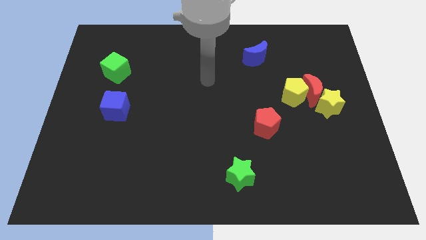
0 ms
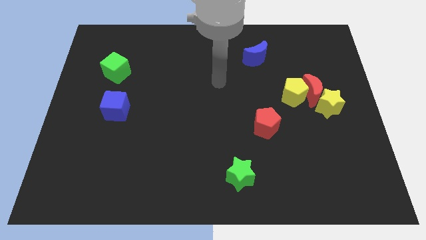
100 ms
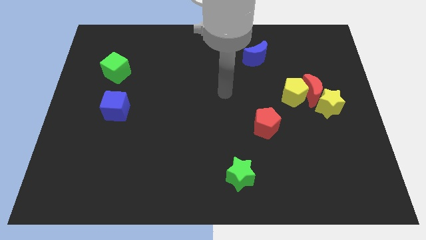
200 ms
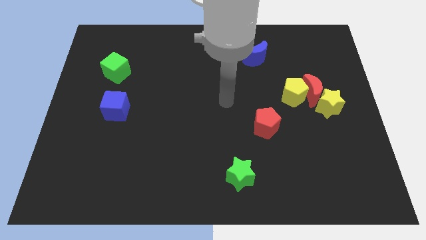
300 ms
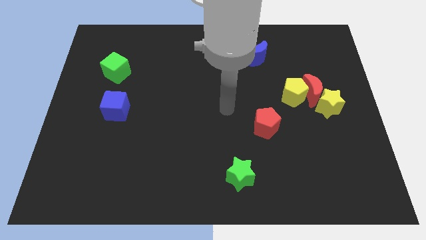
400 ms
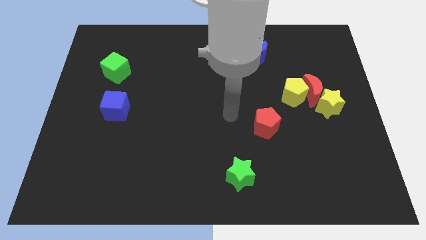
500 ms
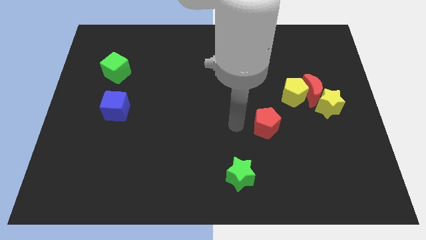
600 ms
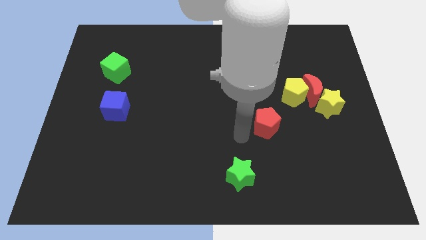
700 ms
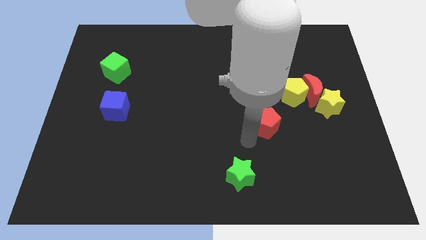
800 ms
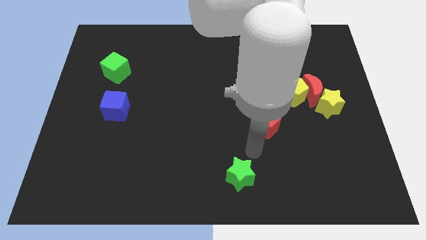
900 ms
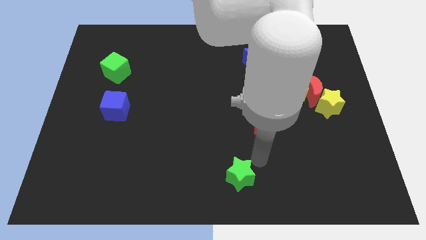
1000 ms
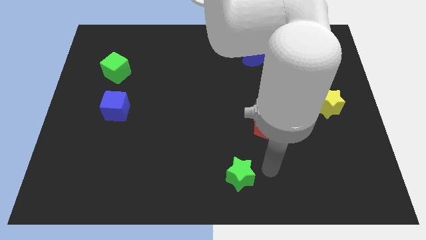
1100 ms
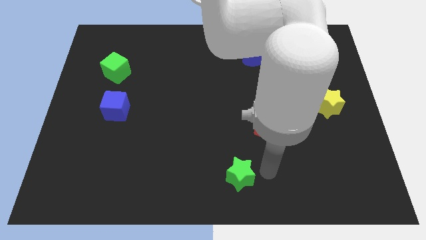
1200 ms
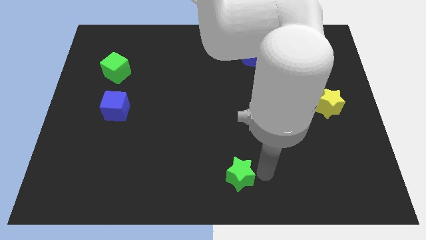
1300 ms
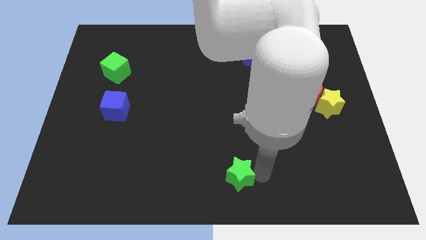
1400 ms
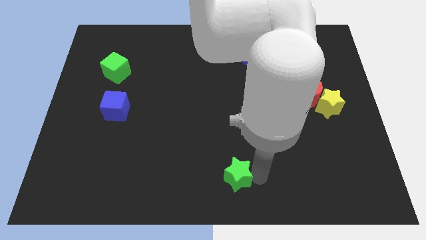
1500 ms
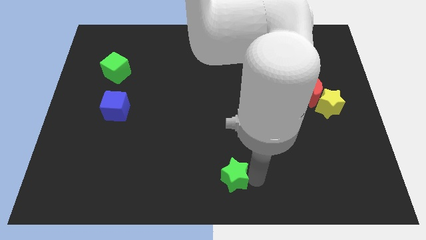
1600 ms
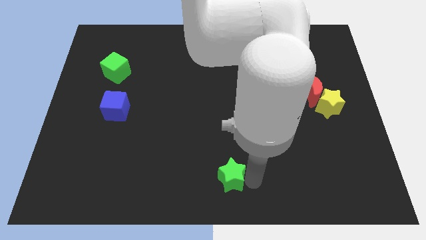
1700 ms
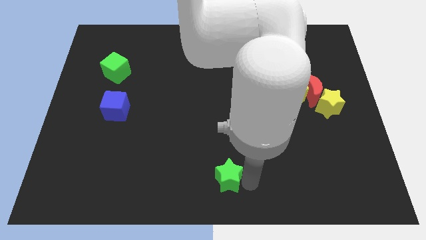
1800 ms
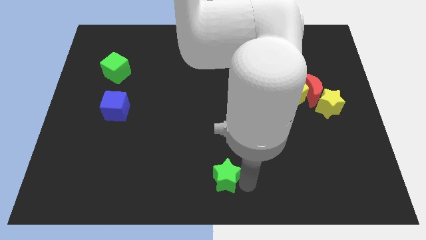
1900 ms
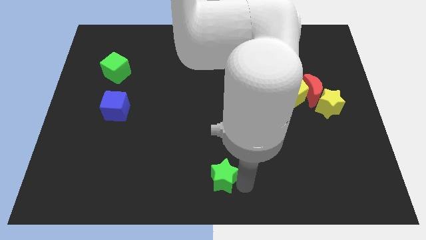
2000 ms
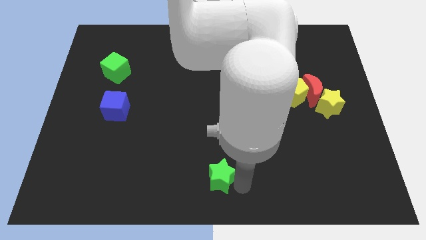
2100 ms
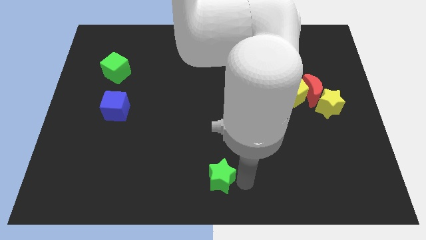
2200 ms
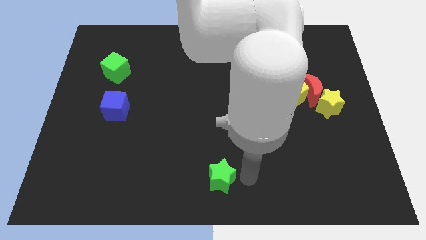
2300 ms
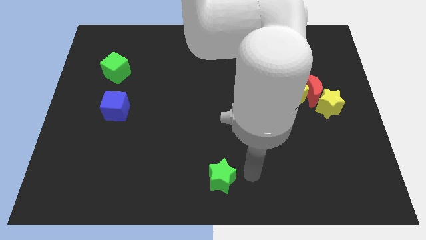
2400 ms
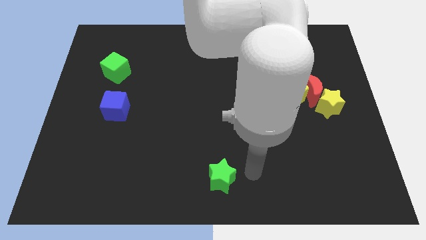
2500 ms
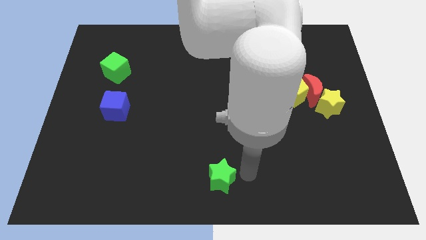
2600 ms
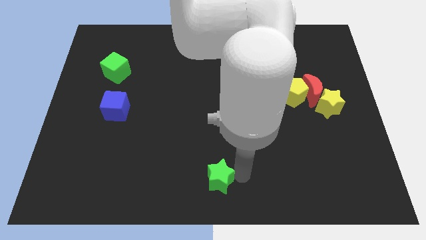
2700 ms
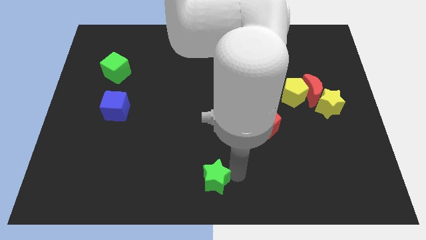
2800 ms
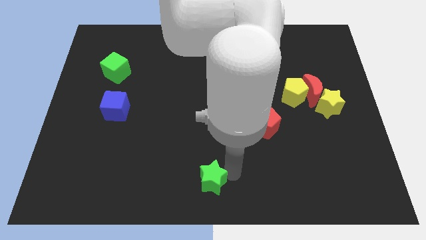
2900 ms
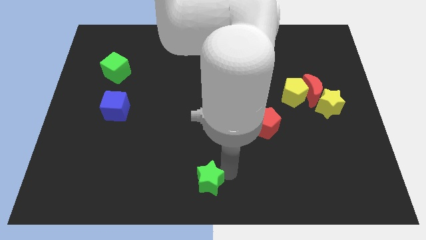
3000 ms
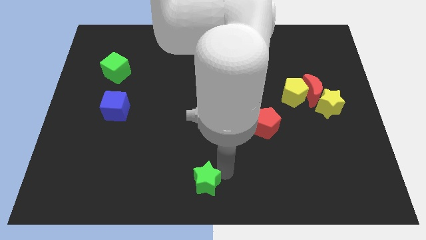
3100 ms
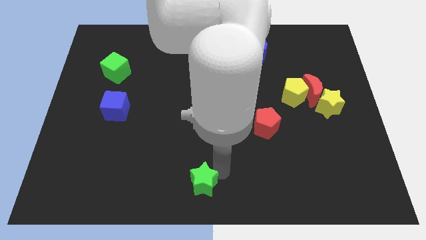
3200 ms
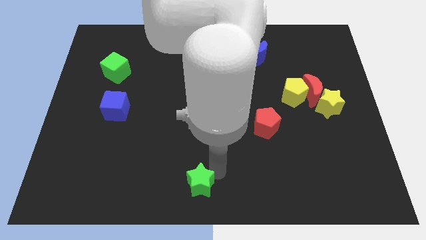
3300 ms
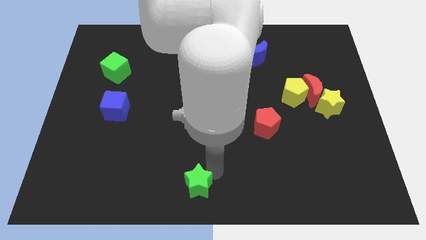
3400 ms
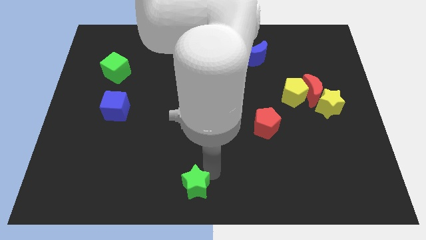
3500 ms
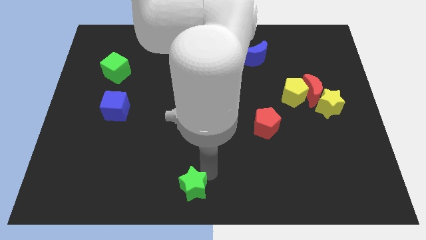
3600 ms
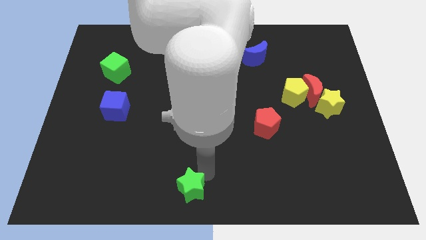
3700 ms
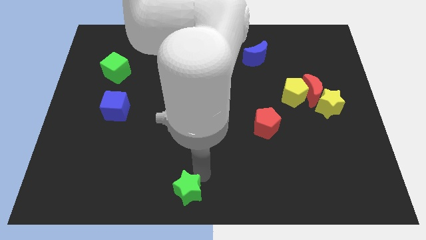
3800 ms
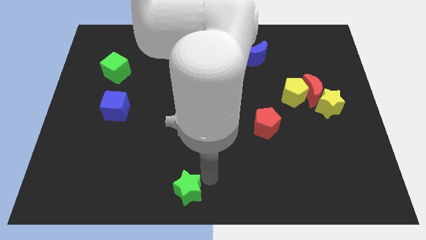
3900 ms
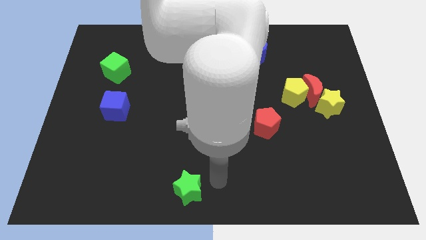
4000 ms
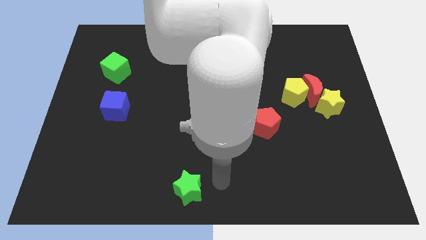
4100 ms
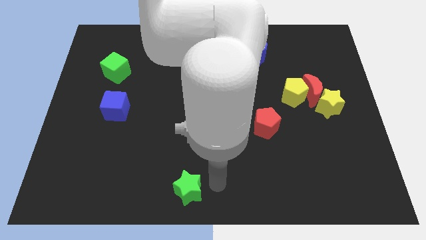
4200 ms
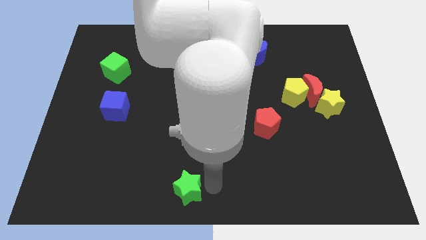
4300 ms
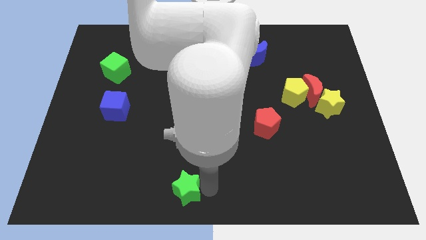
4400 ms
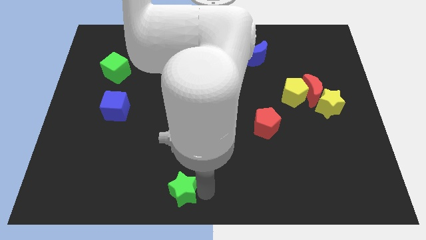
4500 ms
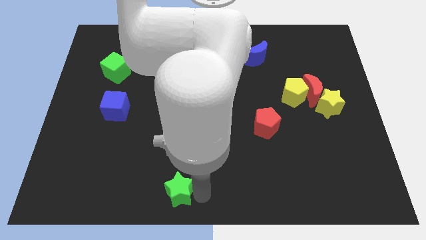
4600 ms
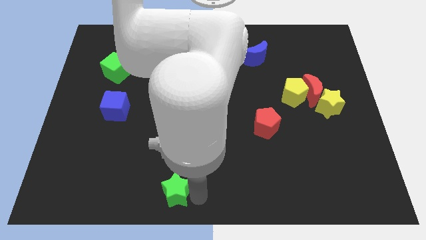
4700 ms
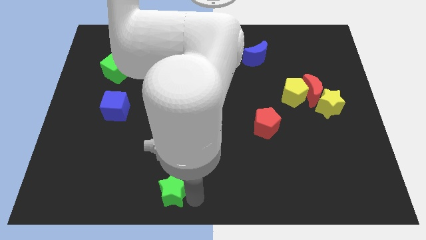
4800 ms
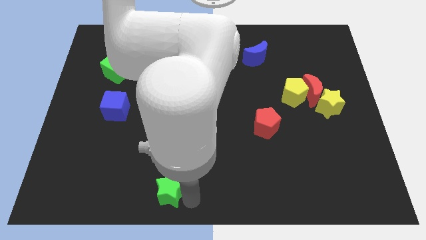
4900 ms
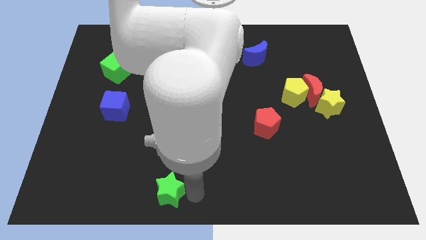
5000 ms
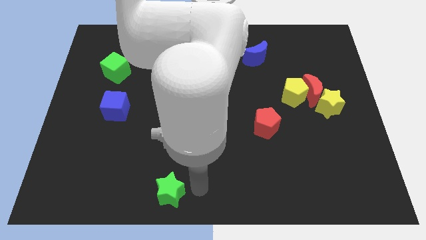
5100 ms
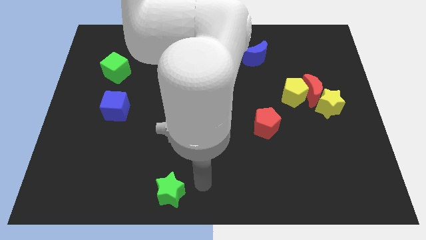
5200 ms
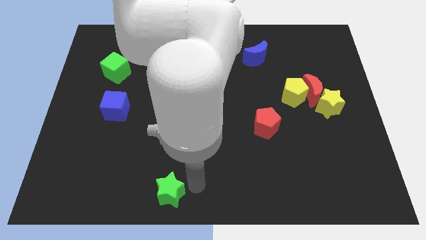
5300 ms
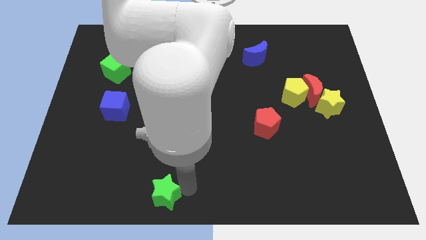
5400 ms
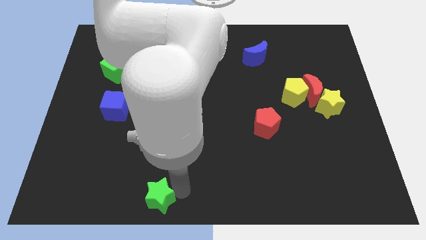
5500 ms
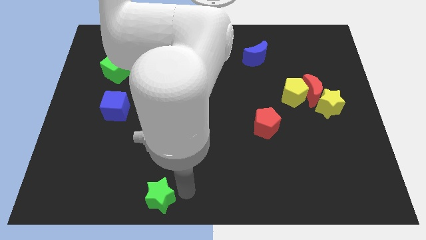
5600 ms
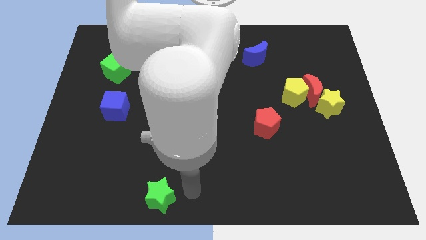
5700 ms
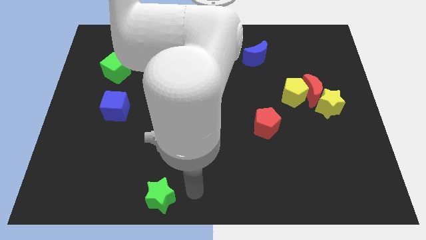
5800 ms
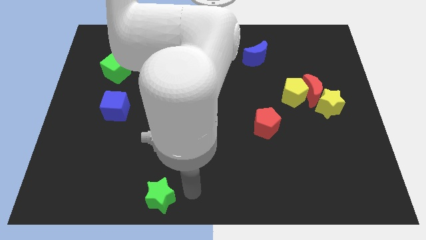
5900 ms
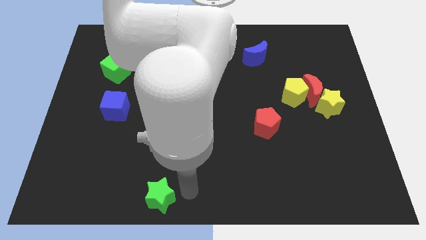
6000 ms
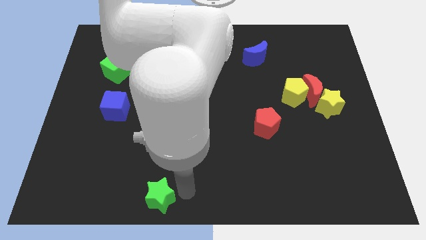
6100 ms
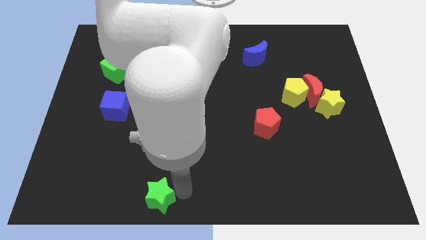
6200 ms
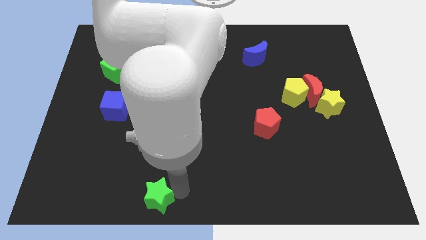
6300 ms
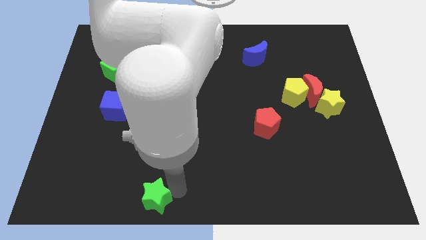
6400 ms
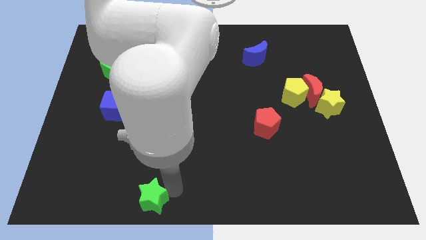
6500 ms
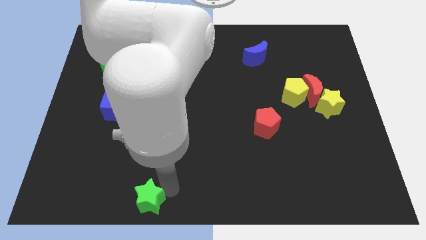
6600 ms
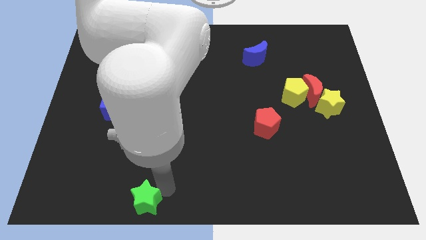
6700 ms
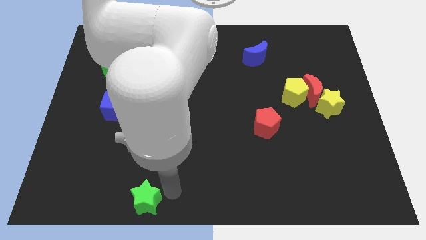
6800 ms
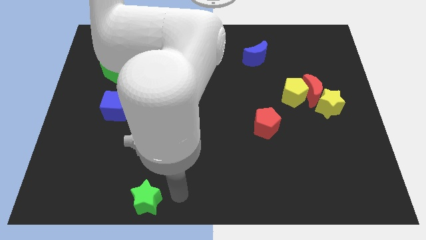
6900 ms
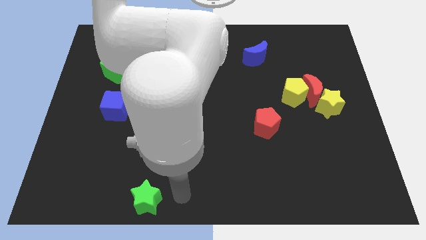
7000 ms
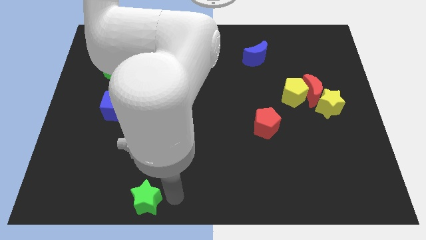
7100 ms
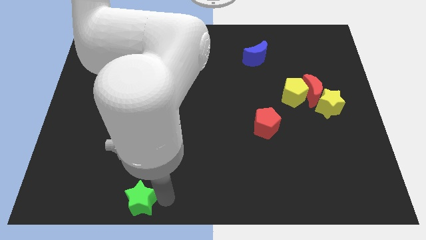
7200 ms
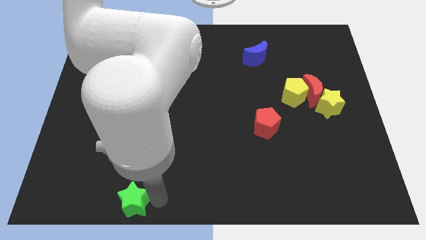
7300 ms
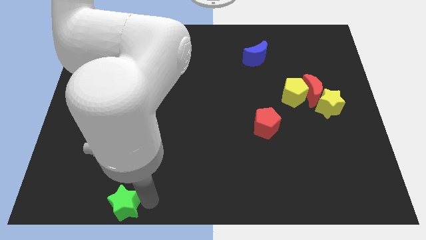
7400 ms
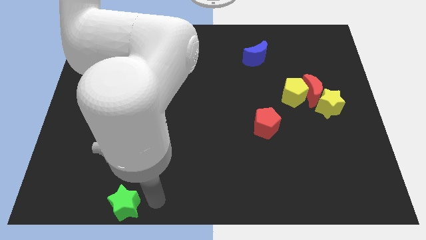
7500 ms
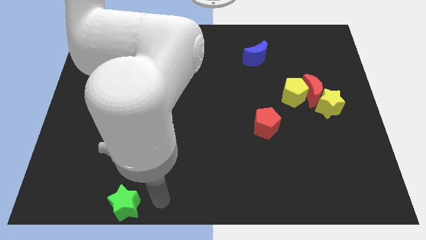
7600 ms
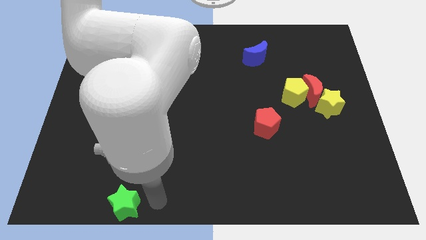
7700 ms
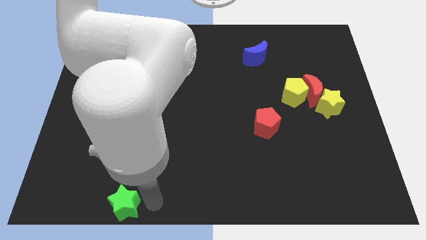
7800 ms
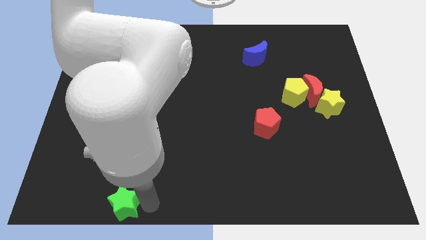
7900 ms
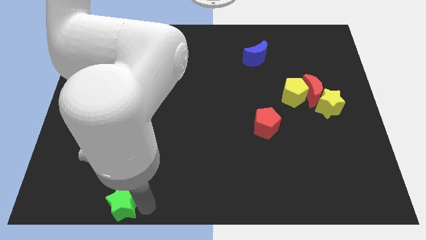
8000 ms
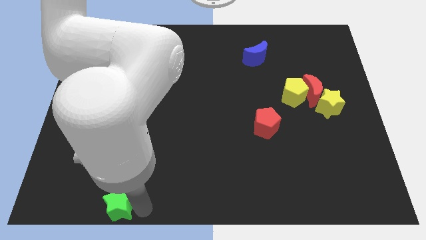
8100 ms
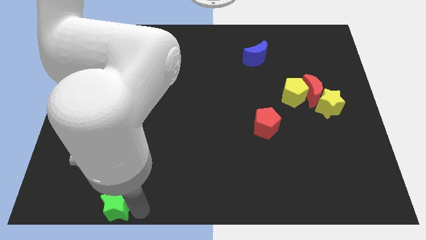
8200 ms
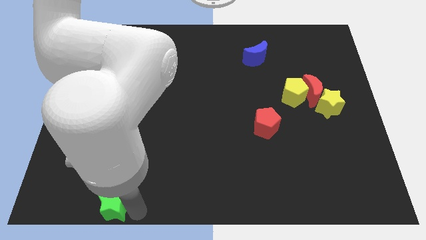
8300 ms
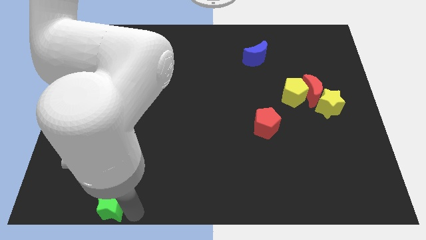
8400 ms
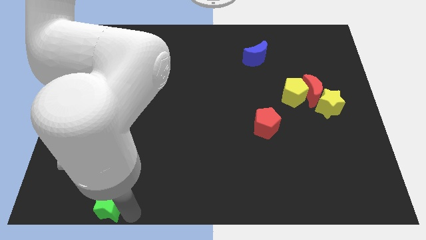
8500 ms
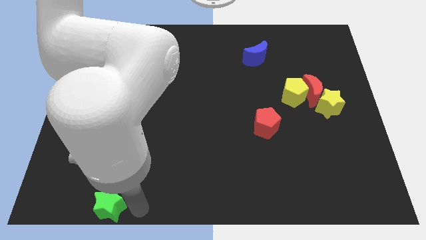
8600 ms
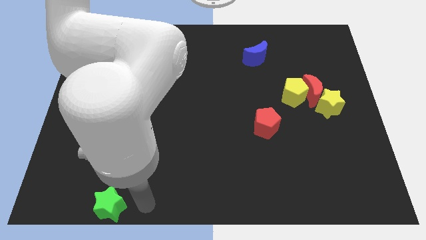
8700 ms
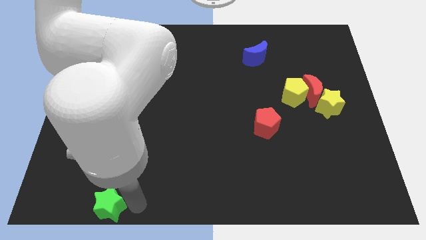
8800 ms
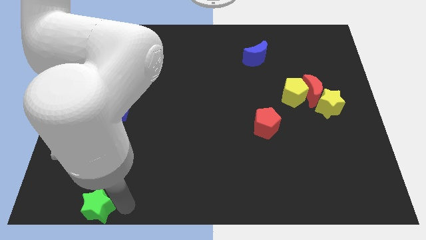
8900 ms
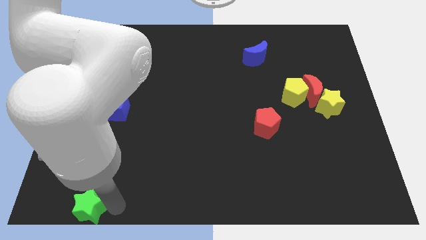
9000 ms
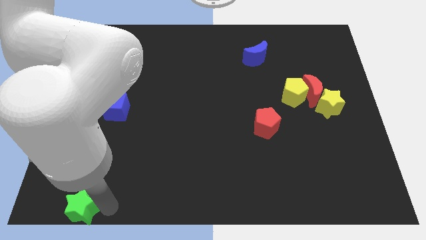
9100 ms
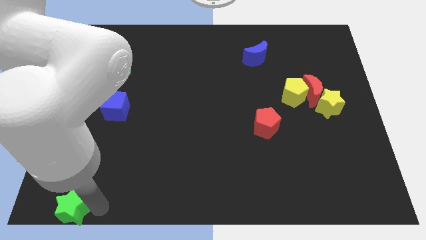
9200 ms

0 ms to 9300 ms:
push the green star to the bottom left of the board
